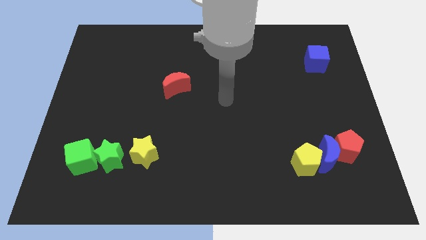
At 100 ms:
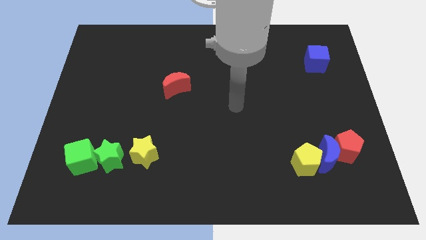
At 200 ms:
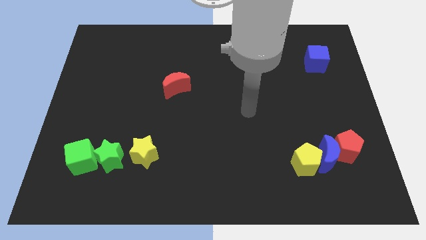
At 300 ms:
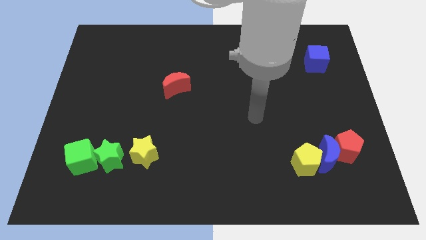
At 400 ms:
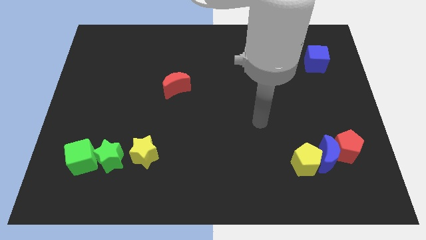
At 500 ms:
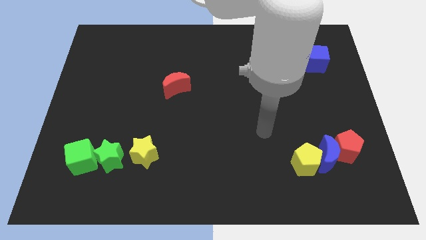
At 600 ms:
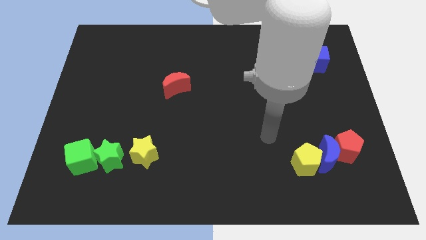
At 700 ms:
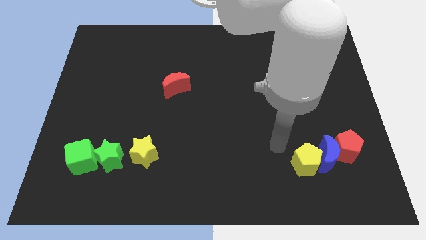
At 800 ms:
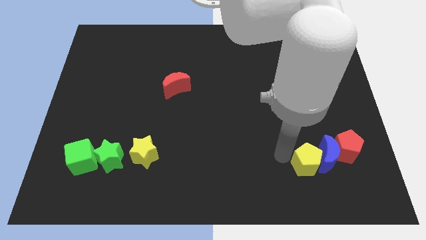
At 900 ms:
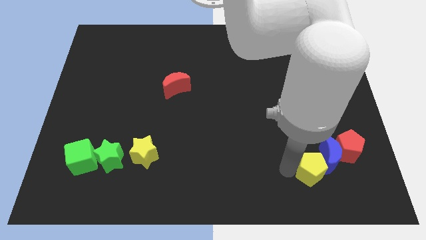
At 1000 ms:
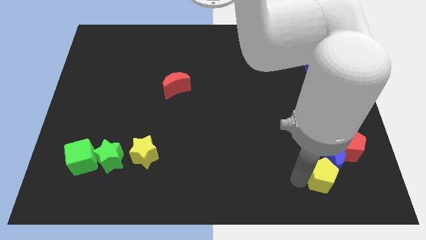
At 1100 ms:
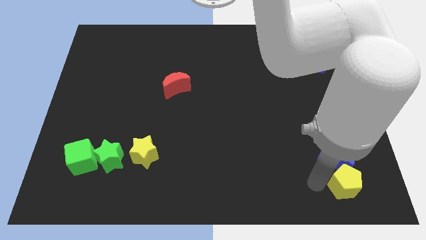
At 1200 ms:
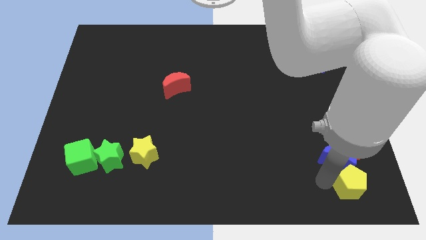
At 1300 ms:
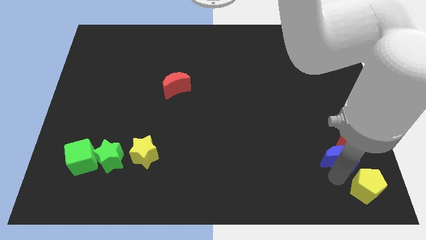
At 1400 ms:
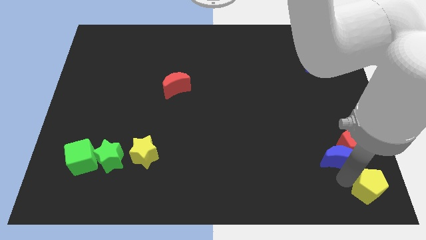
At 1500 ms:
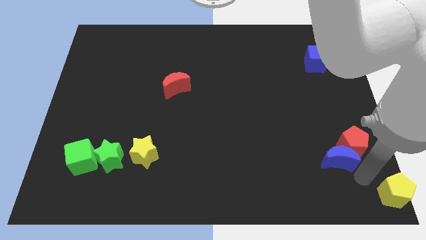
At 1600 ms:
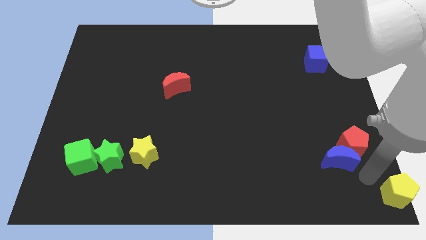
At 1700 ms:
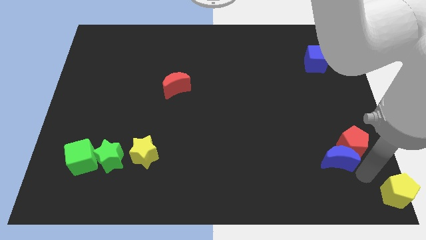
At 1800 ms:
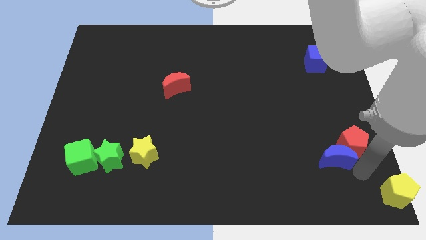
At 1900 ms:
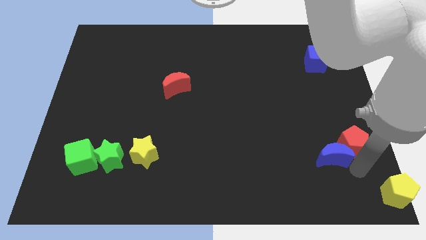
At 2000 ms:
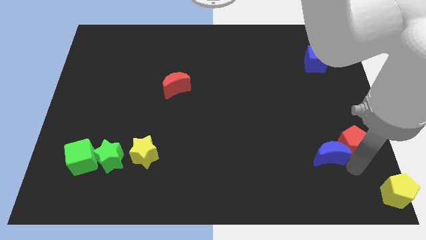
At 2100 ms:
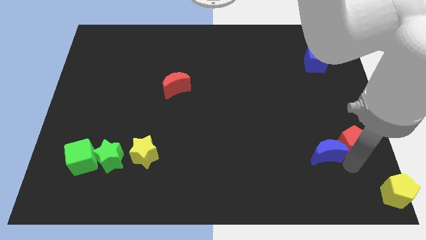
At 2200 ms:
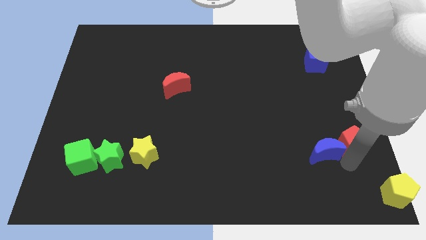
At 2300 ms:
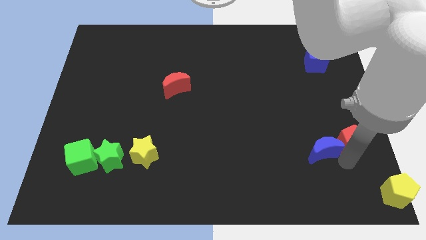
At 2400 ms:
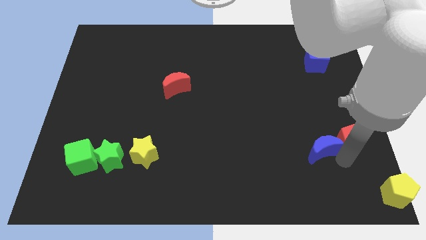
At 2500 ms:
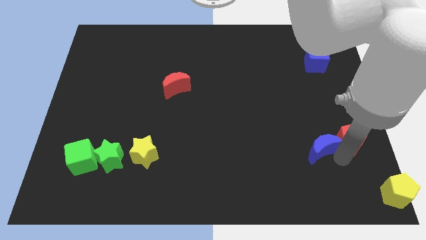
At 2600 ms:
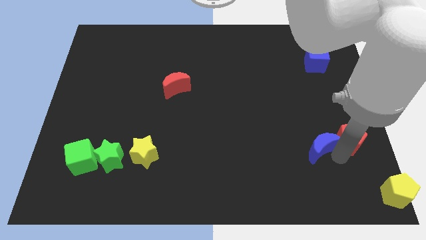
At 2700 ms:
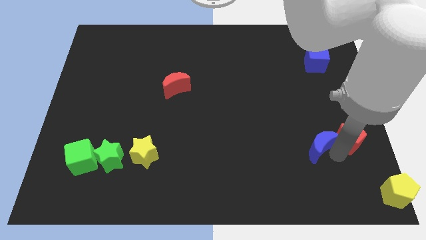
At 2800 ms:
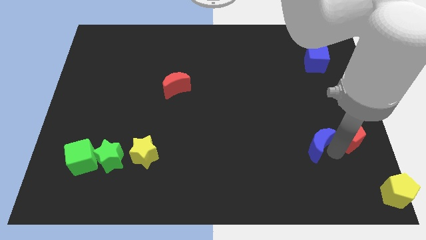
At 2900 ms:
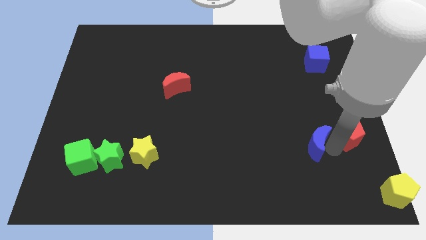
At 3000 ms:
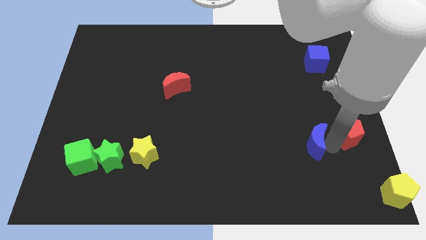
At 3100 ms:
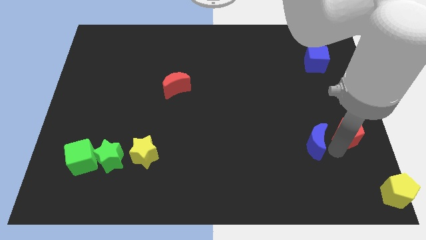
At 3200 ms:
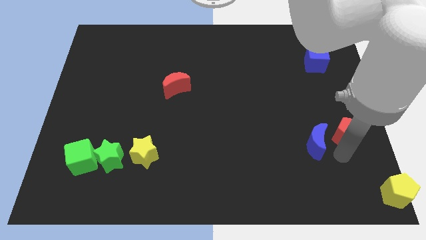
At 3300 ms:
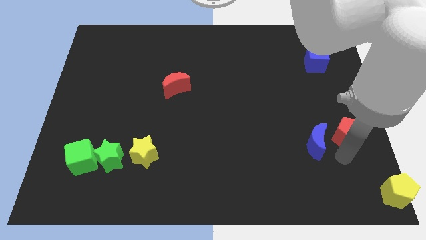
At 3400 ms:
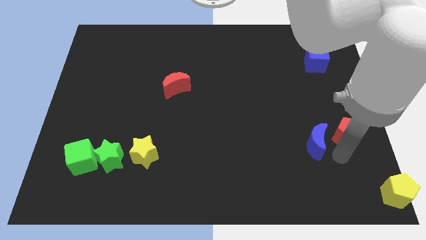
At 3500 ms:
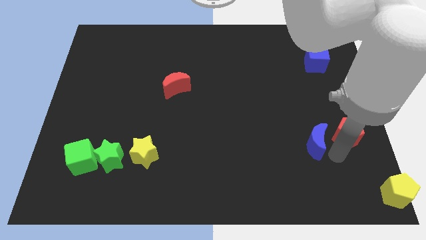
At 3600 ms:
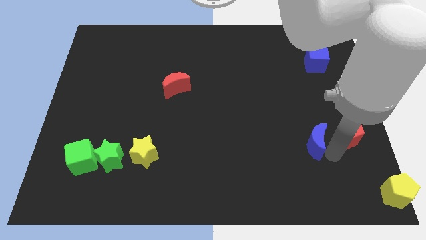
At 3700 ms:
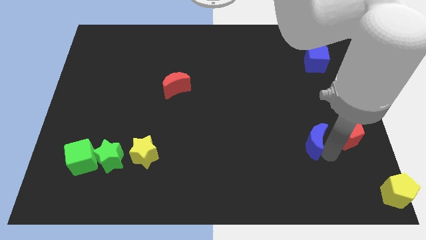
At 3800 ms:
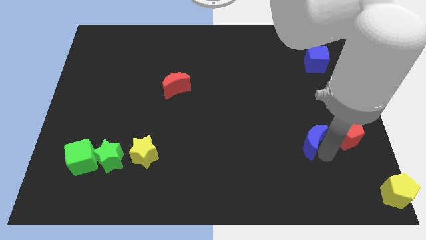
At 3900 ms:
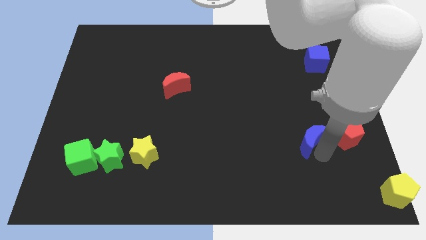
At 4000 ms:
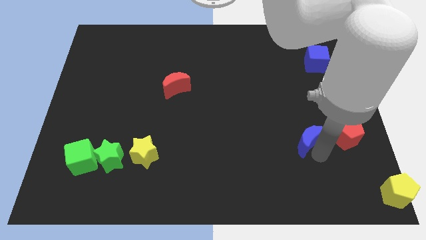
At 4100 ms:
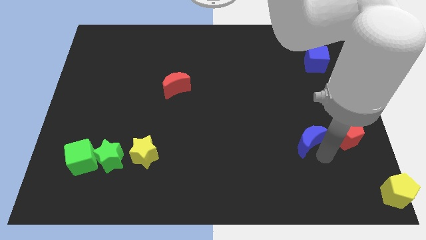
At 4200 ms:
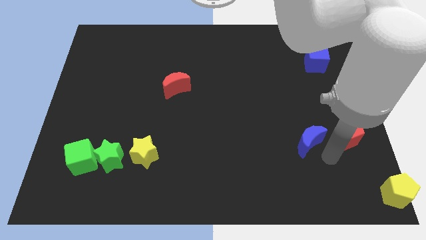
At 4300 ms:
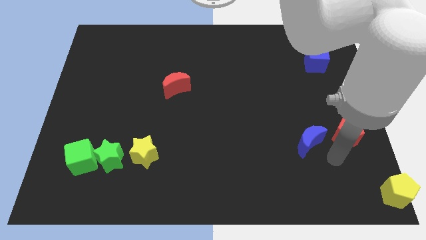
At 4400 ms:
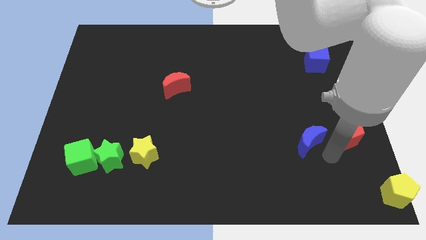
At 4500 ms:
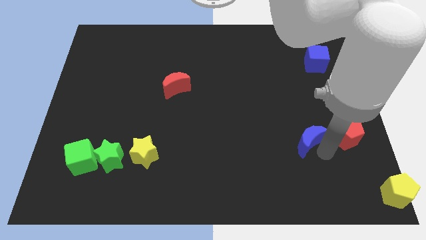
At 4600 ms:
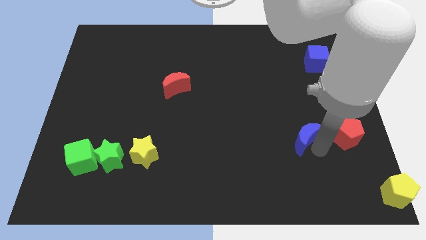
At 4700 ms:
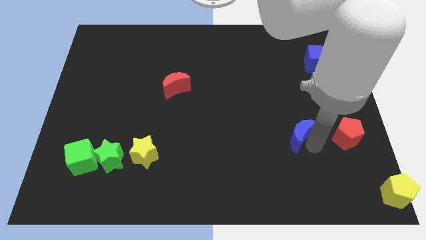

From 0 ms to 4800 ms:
slightly push the blue moon upwards and to the left diagonally

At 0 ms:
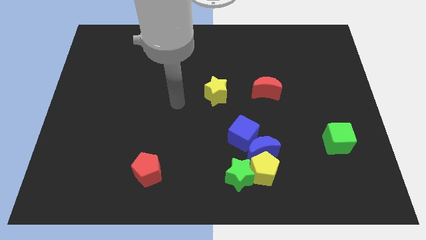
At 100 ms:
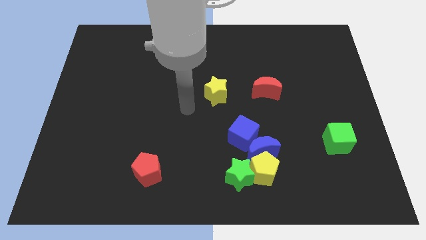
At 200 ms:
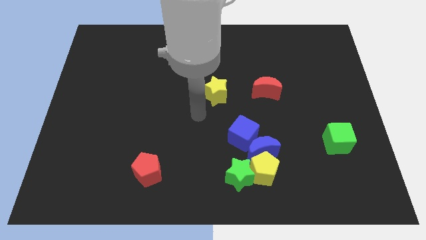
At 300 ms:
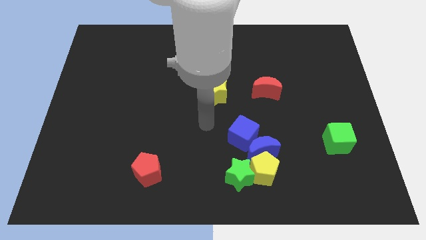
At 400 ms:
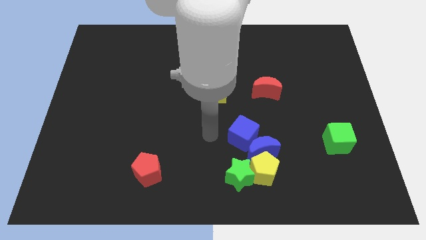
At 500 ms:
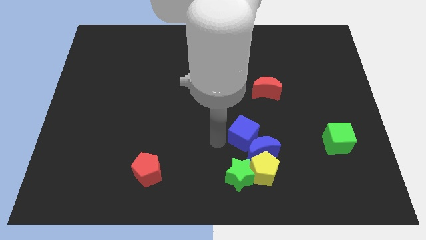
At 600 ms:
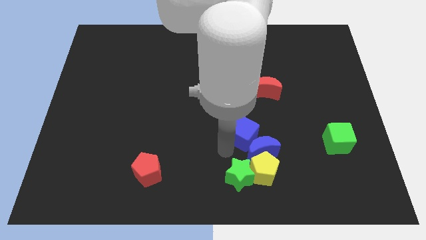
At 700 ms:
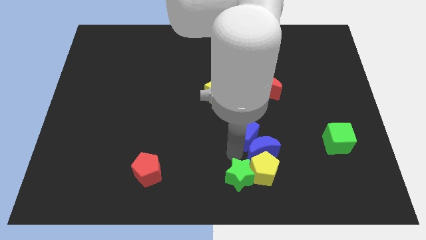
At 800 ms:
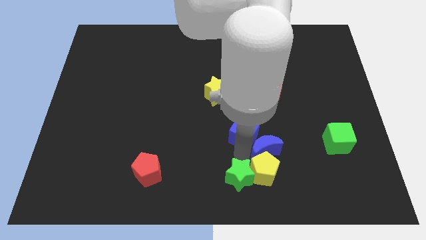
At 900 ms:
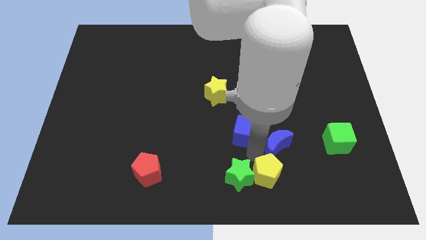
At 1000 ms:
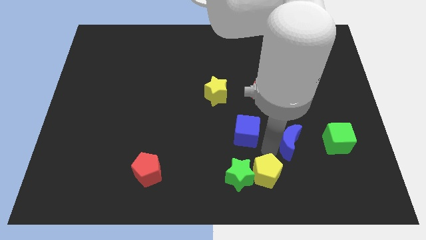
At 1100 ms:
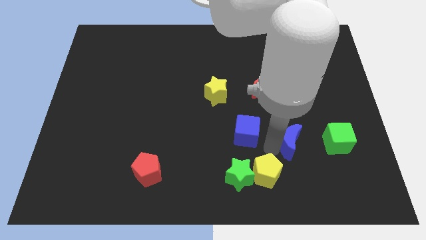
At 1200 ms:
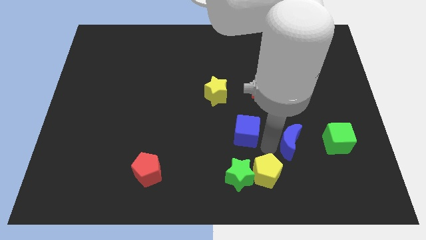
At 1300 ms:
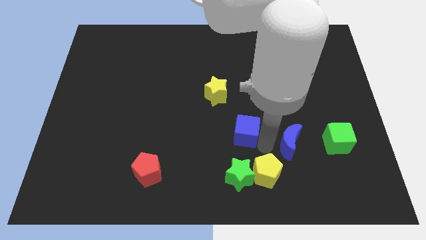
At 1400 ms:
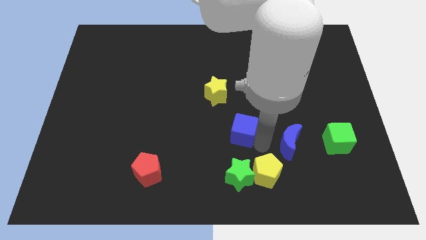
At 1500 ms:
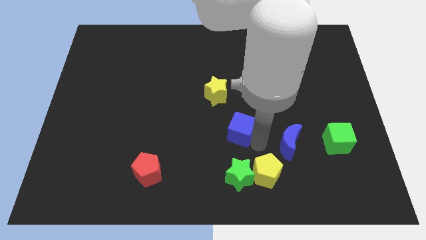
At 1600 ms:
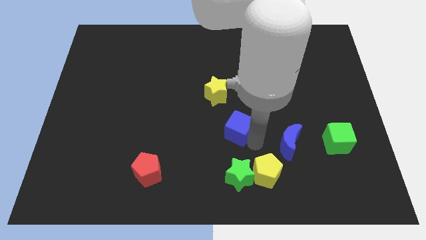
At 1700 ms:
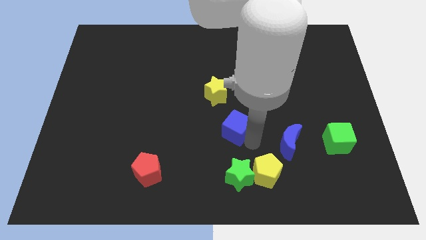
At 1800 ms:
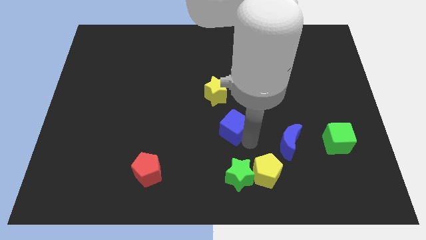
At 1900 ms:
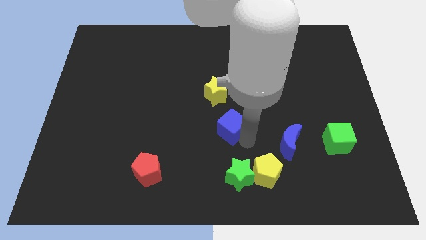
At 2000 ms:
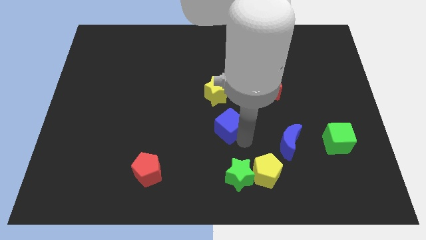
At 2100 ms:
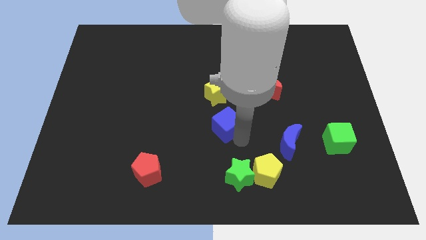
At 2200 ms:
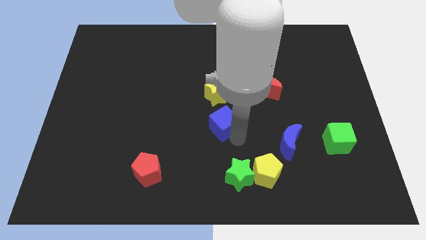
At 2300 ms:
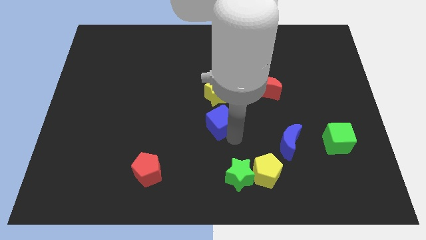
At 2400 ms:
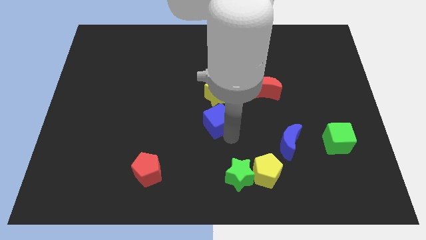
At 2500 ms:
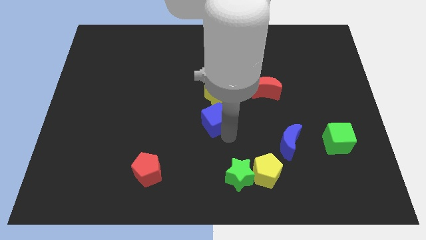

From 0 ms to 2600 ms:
move the blue cube a bit up and then left

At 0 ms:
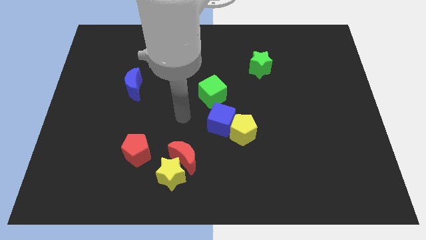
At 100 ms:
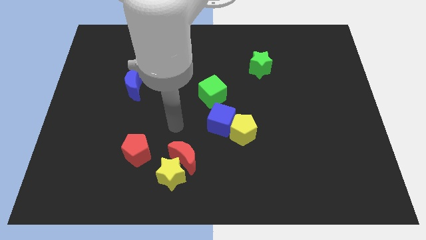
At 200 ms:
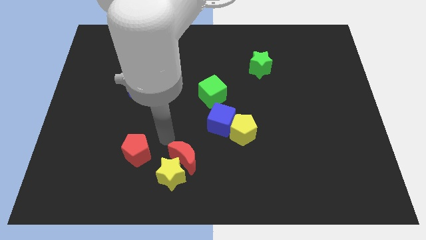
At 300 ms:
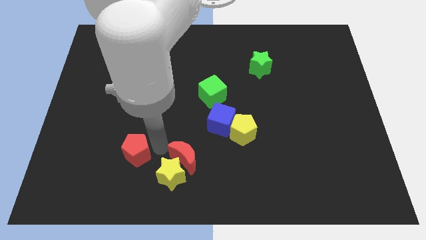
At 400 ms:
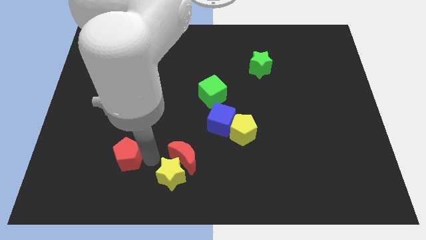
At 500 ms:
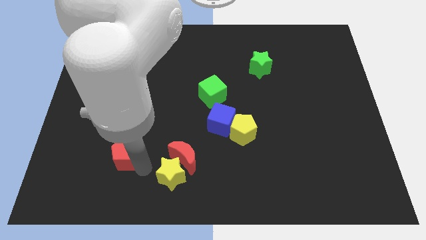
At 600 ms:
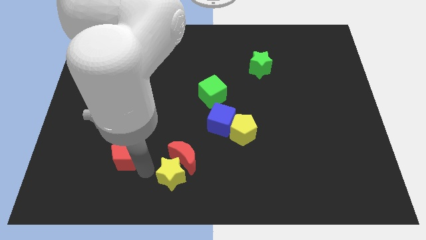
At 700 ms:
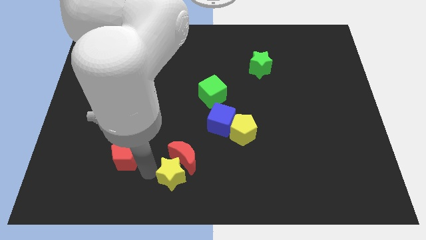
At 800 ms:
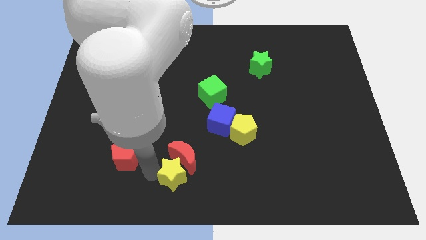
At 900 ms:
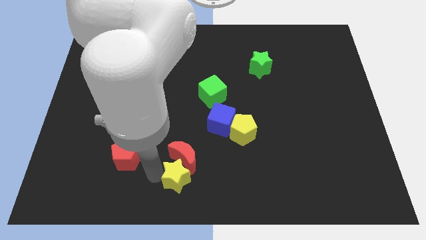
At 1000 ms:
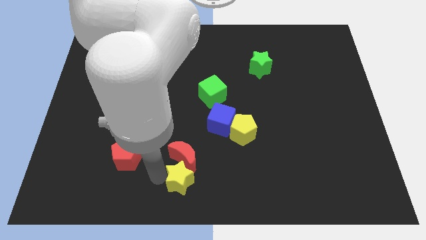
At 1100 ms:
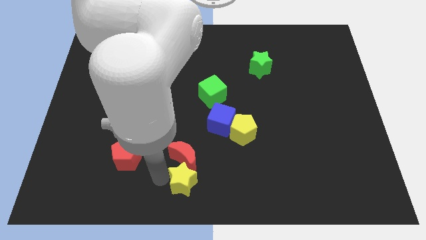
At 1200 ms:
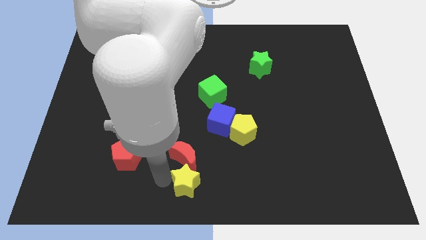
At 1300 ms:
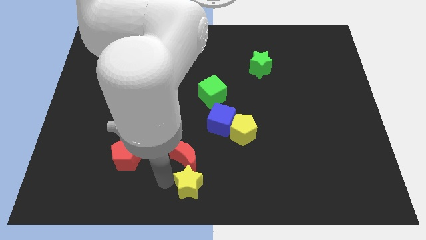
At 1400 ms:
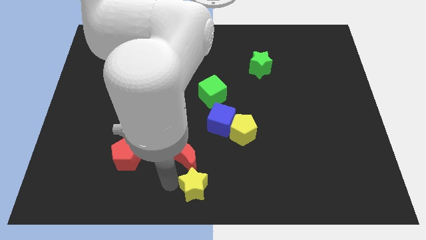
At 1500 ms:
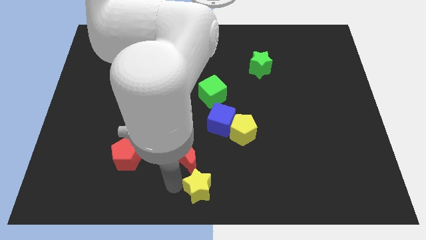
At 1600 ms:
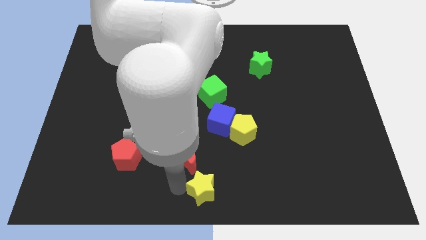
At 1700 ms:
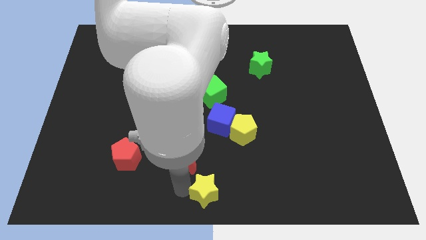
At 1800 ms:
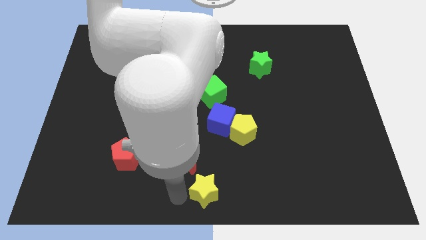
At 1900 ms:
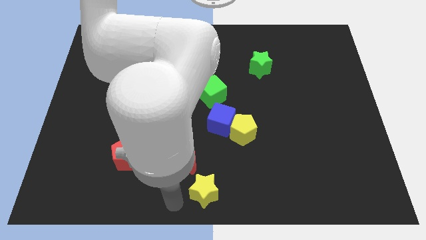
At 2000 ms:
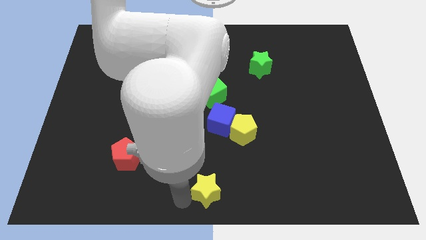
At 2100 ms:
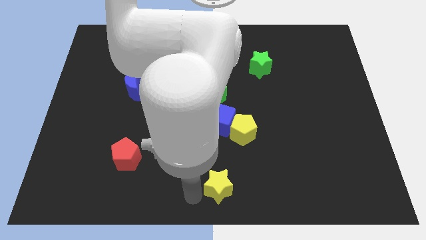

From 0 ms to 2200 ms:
slightly move the yellow star to the right
